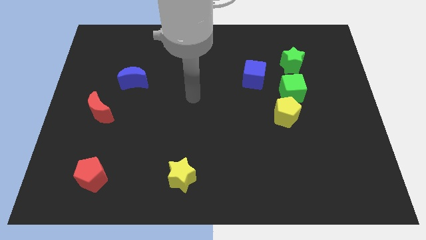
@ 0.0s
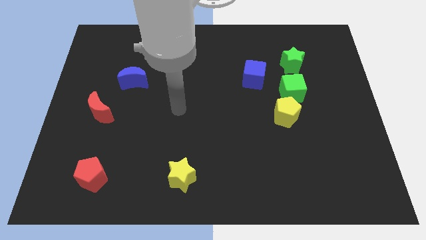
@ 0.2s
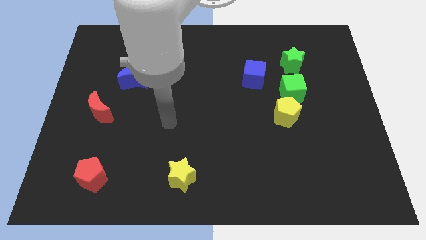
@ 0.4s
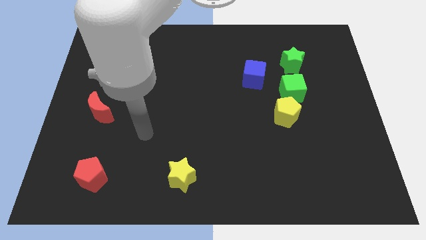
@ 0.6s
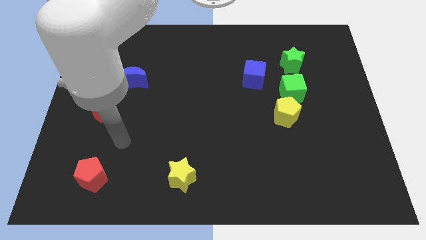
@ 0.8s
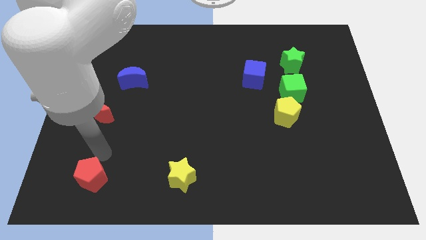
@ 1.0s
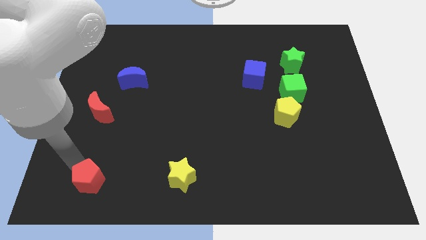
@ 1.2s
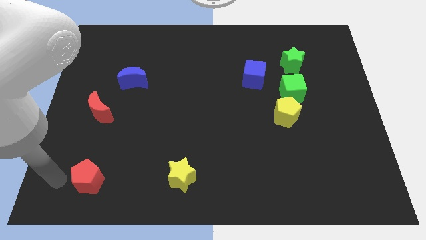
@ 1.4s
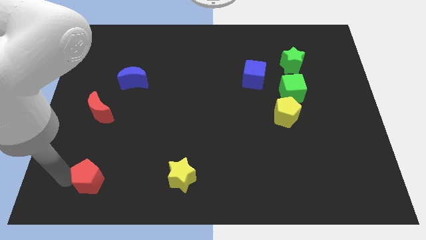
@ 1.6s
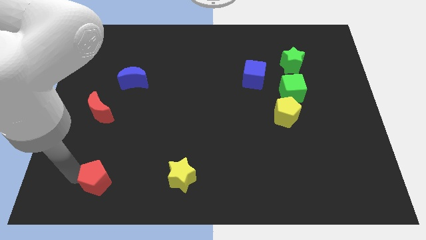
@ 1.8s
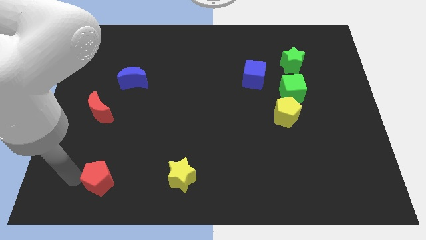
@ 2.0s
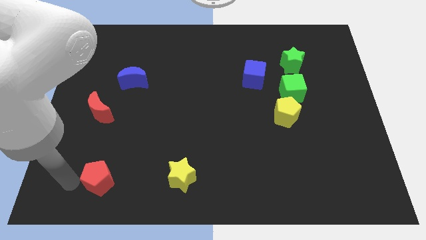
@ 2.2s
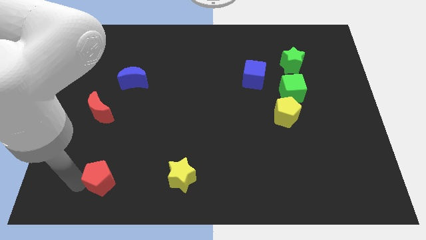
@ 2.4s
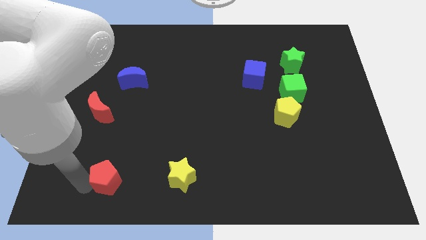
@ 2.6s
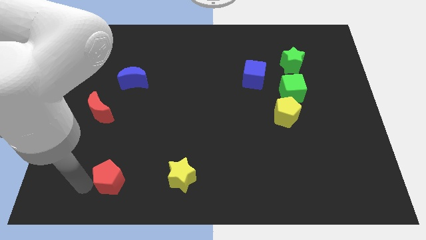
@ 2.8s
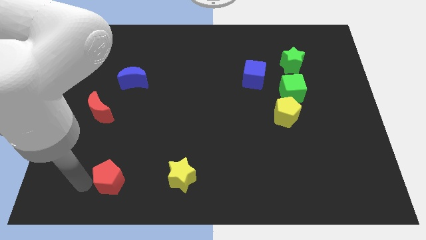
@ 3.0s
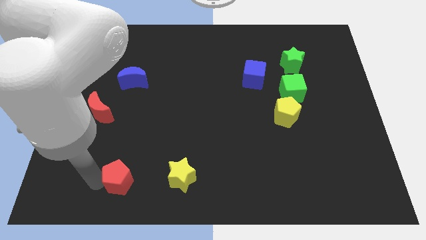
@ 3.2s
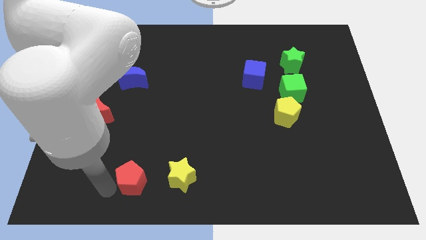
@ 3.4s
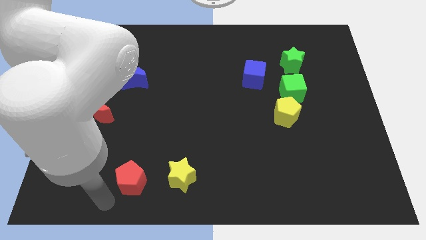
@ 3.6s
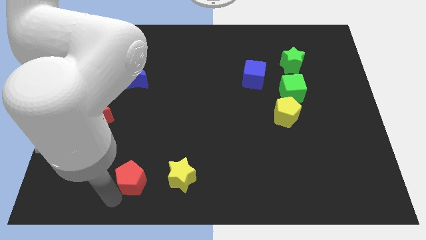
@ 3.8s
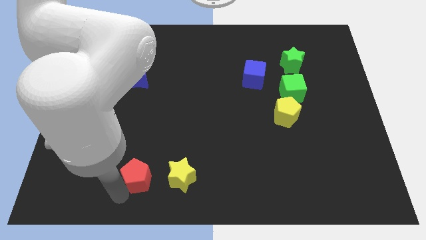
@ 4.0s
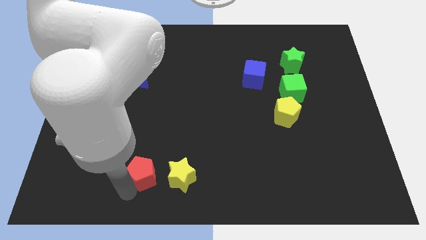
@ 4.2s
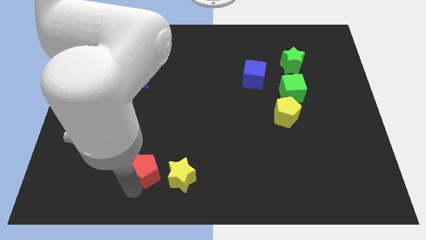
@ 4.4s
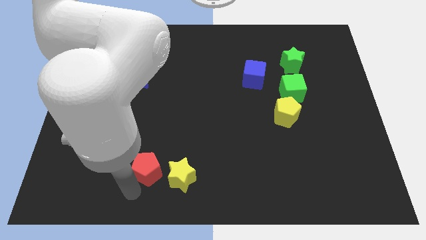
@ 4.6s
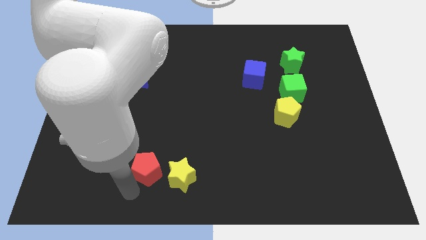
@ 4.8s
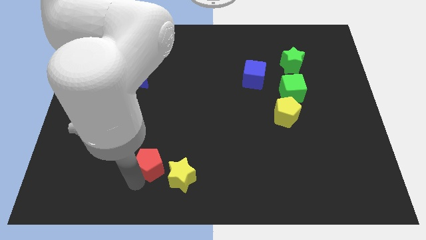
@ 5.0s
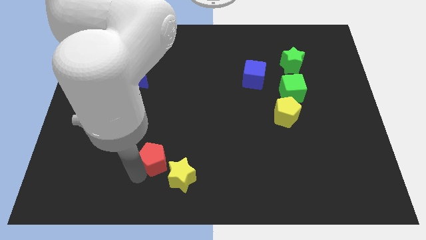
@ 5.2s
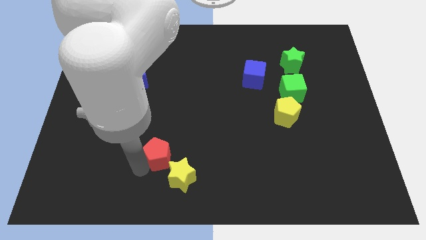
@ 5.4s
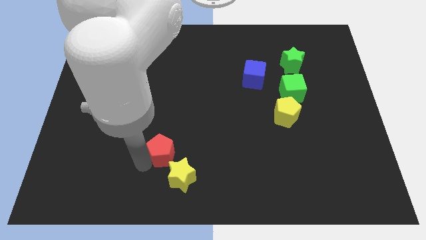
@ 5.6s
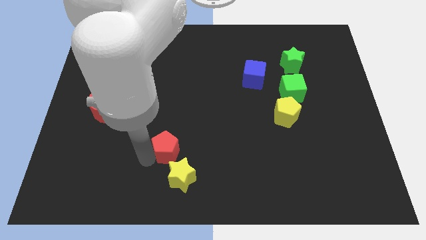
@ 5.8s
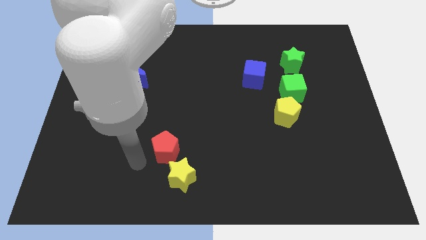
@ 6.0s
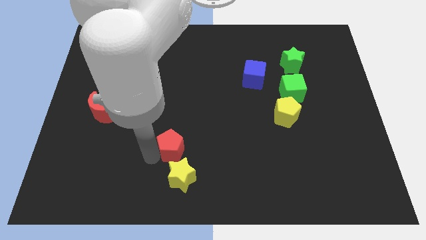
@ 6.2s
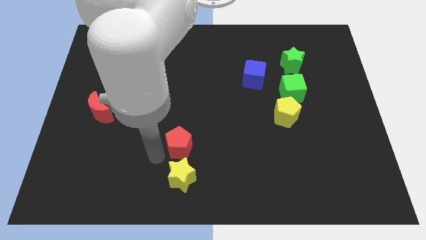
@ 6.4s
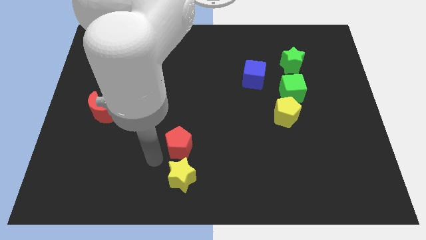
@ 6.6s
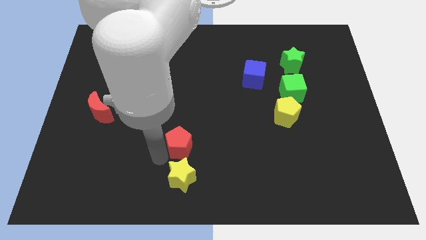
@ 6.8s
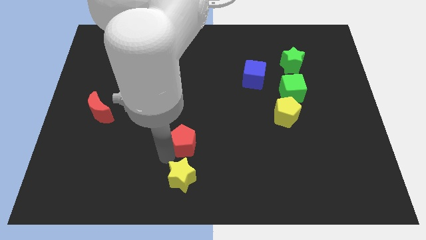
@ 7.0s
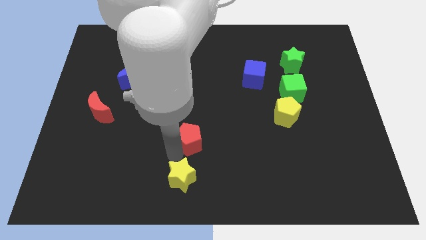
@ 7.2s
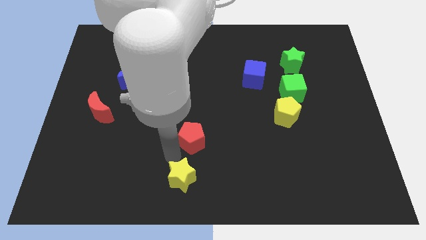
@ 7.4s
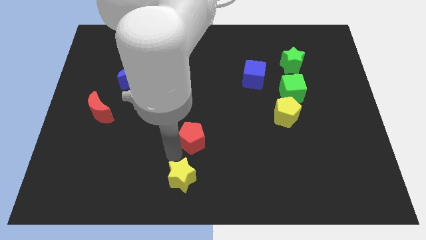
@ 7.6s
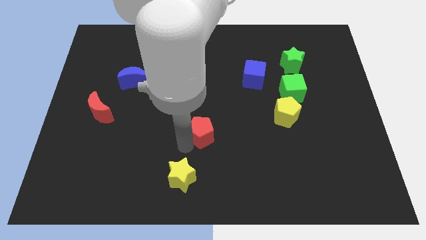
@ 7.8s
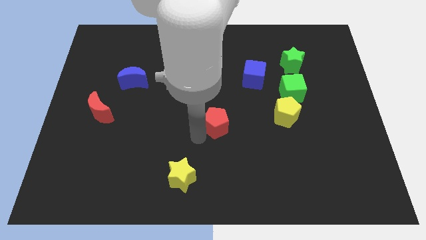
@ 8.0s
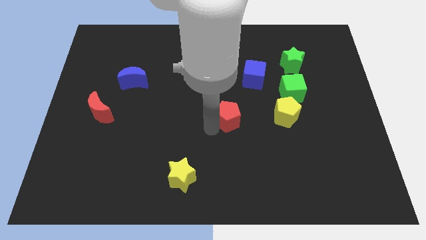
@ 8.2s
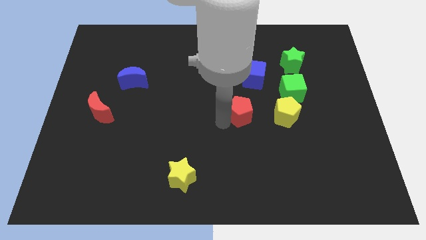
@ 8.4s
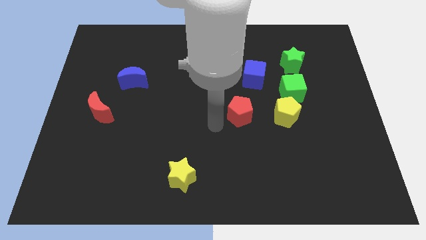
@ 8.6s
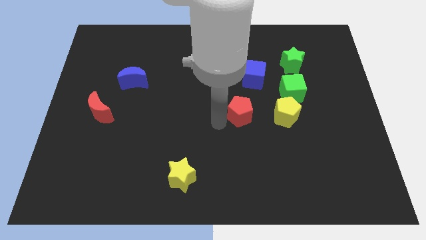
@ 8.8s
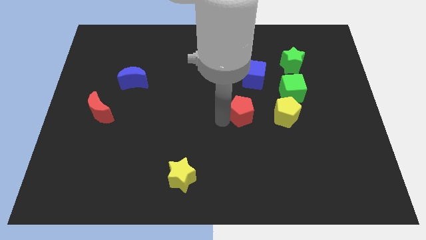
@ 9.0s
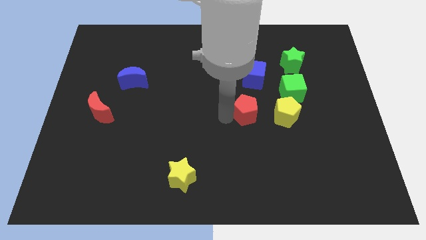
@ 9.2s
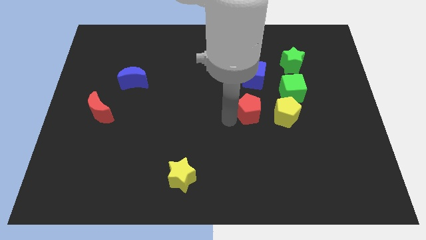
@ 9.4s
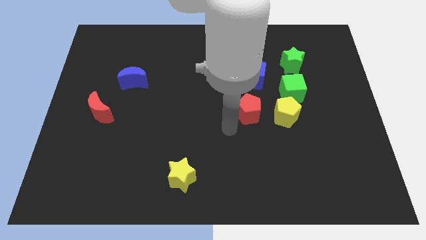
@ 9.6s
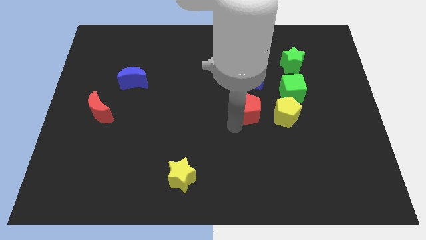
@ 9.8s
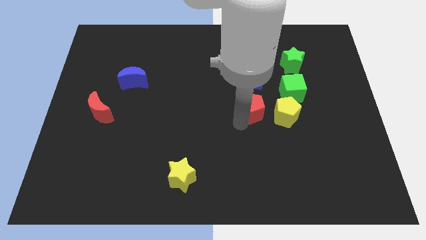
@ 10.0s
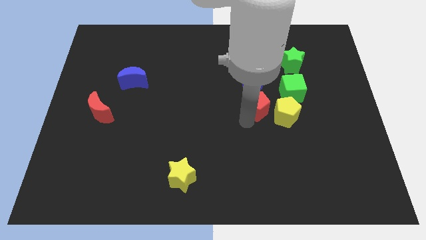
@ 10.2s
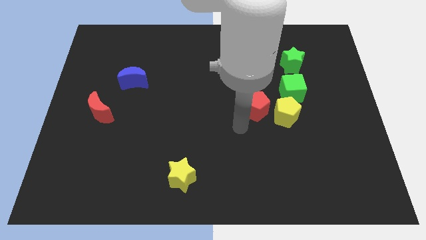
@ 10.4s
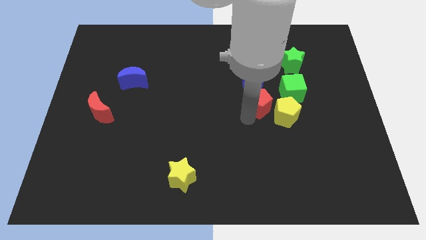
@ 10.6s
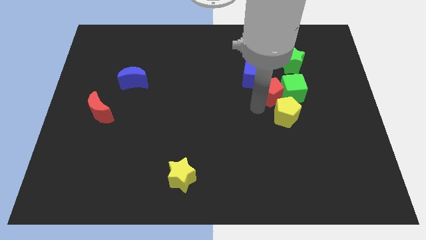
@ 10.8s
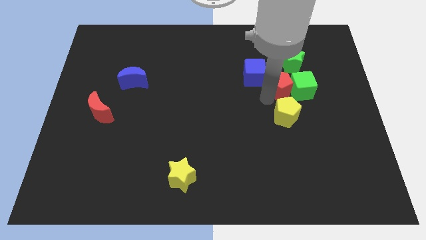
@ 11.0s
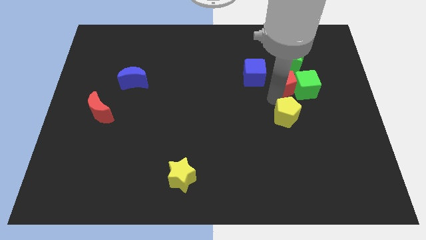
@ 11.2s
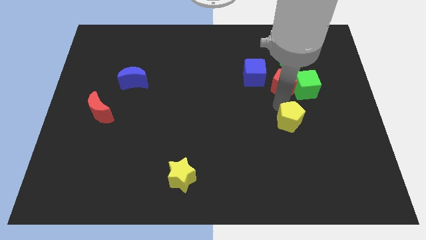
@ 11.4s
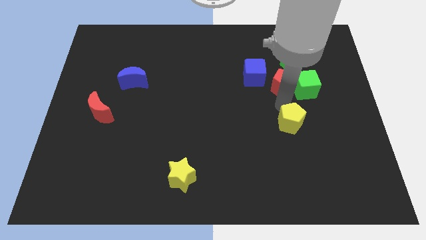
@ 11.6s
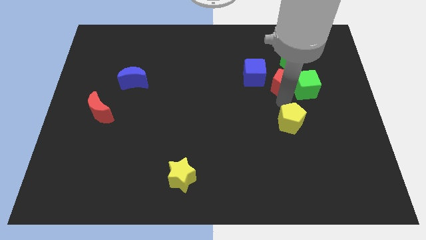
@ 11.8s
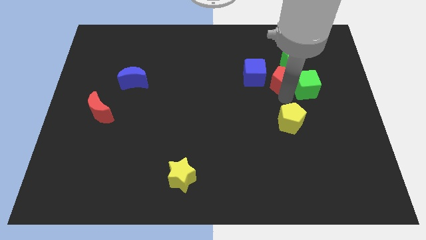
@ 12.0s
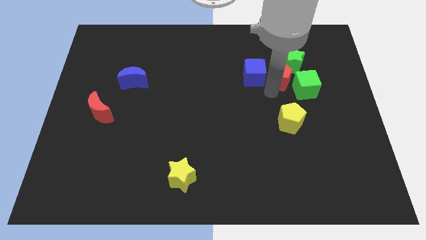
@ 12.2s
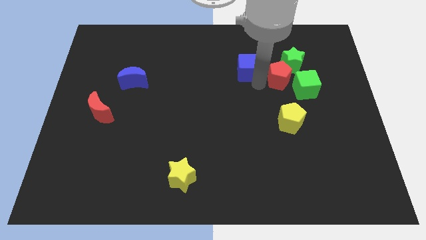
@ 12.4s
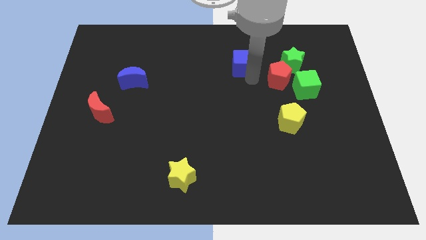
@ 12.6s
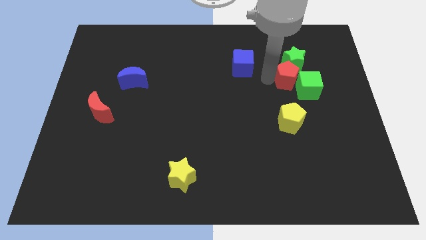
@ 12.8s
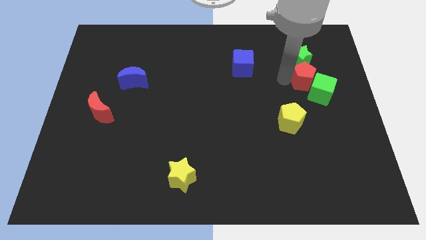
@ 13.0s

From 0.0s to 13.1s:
slide the red pentagon diagonally down and to the right of the green star
